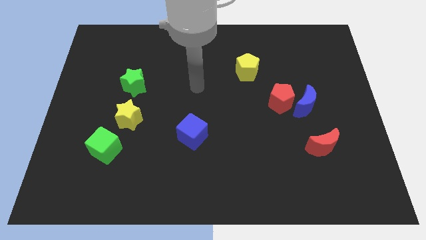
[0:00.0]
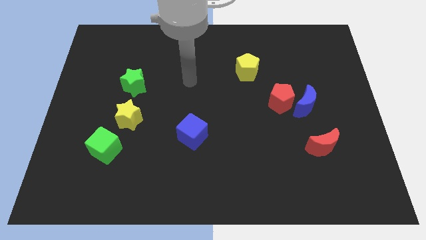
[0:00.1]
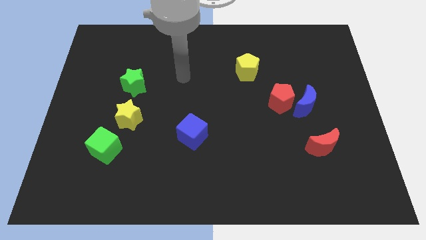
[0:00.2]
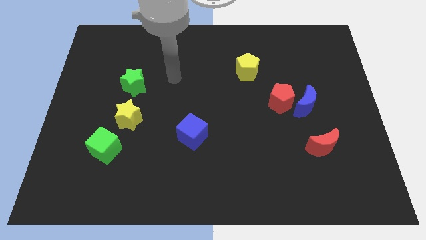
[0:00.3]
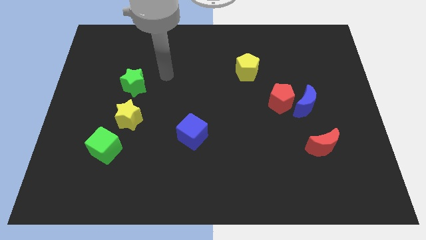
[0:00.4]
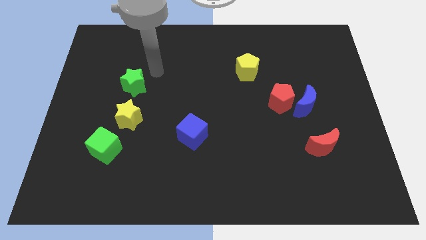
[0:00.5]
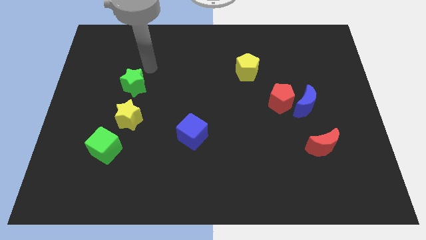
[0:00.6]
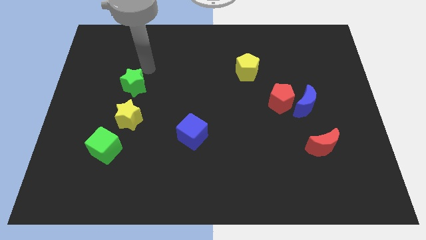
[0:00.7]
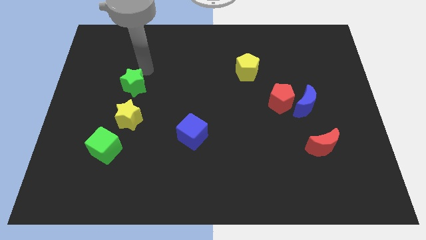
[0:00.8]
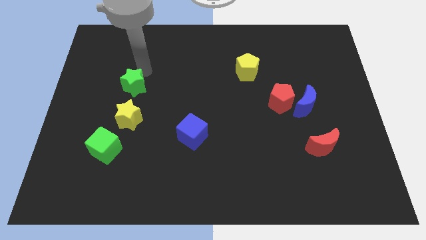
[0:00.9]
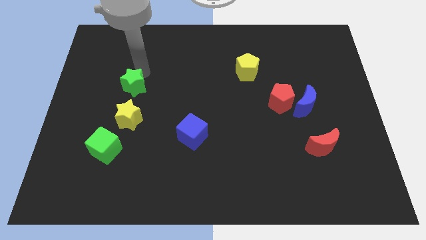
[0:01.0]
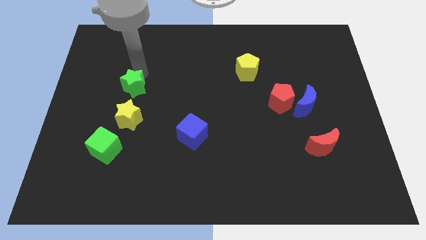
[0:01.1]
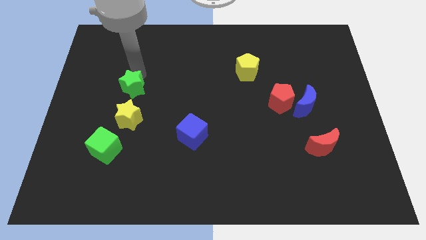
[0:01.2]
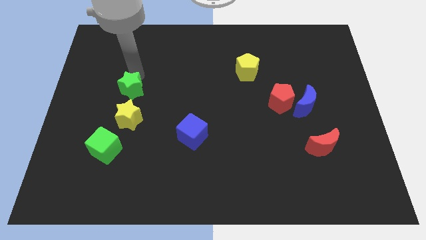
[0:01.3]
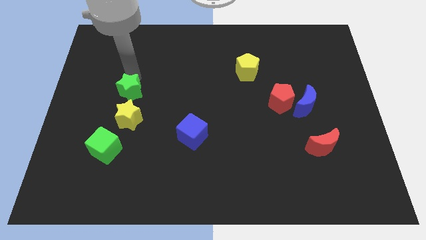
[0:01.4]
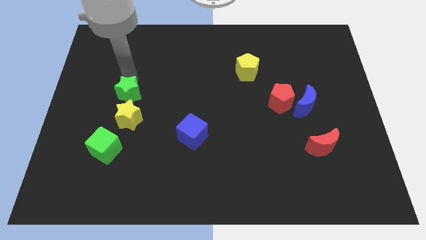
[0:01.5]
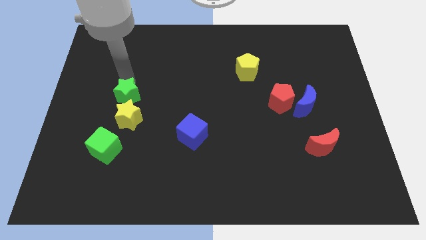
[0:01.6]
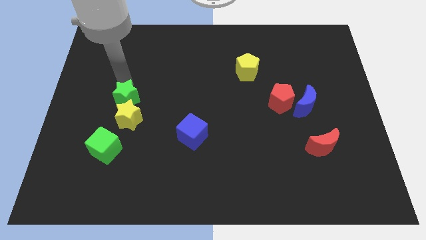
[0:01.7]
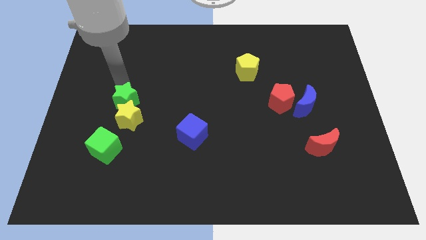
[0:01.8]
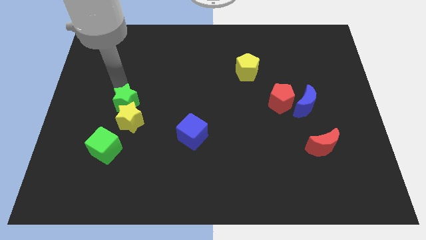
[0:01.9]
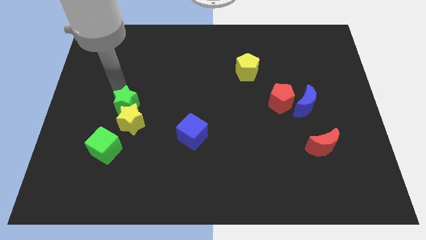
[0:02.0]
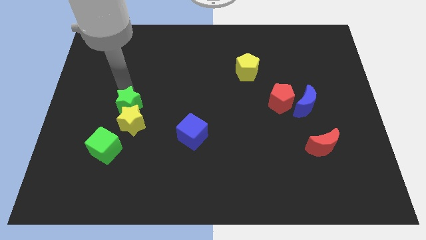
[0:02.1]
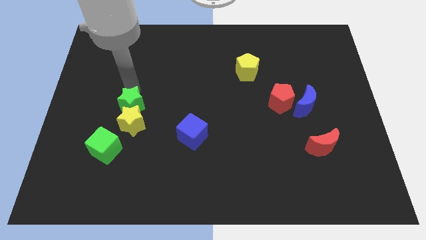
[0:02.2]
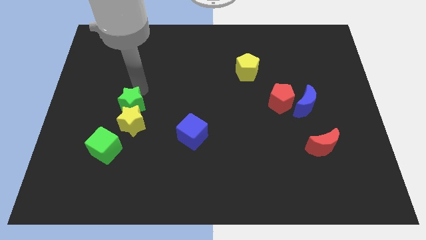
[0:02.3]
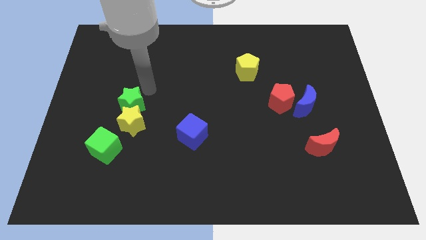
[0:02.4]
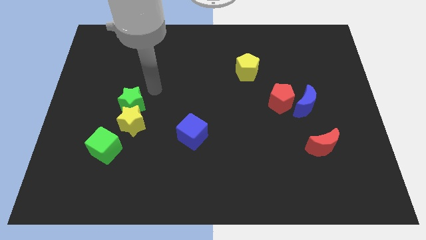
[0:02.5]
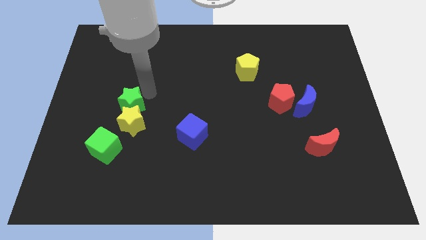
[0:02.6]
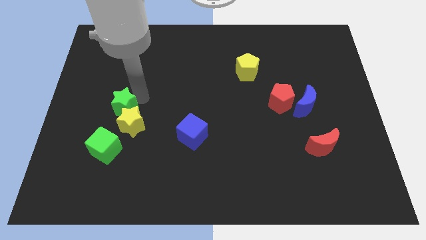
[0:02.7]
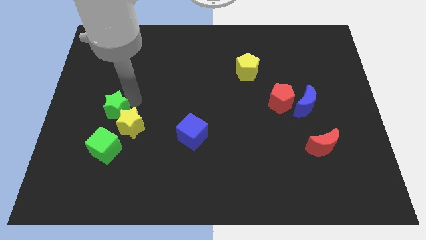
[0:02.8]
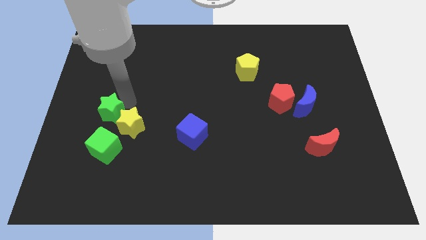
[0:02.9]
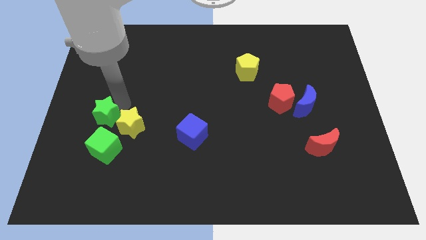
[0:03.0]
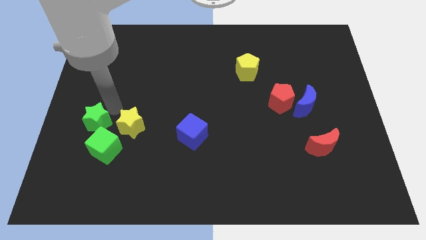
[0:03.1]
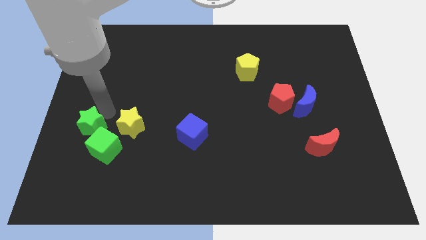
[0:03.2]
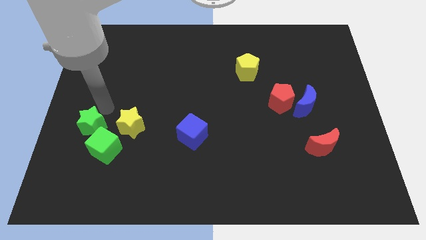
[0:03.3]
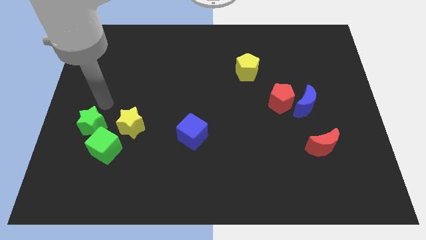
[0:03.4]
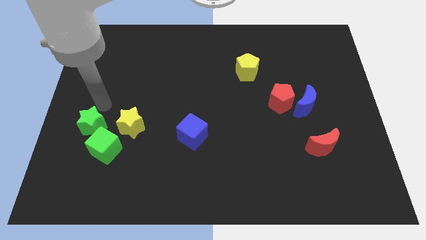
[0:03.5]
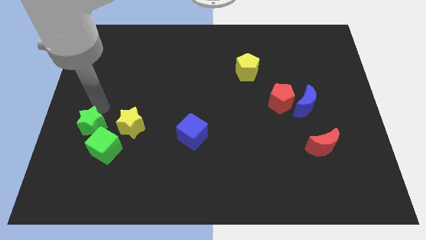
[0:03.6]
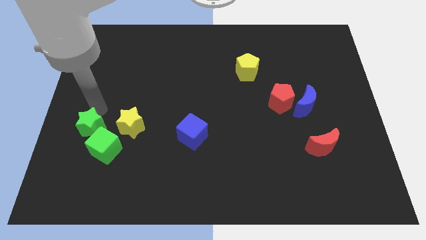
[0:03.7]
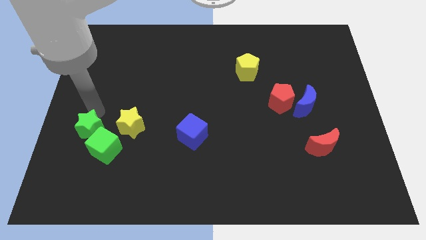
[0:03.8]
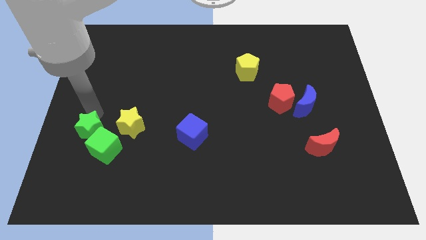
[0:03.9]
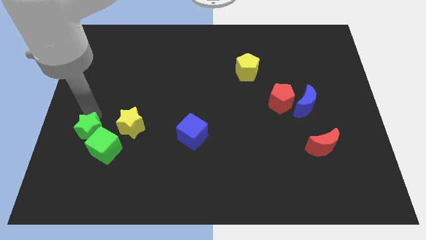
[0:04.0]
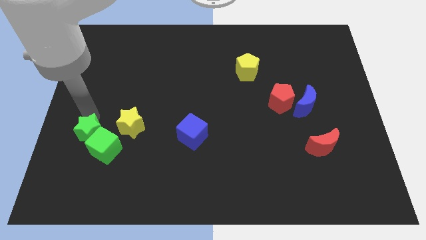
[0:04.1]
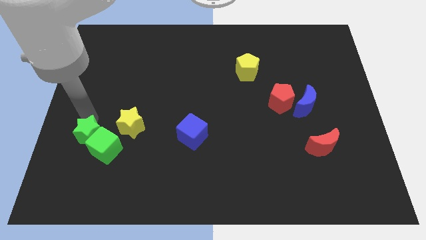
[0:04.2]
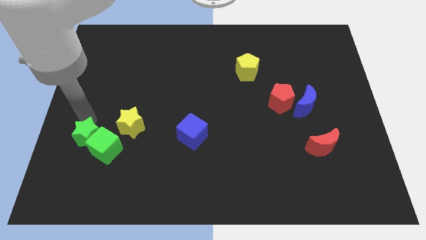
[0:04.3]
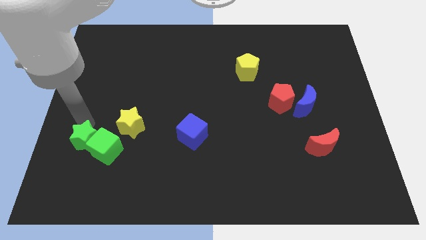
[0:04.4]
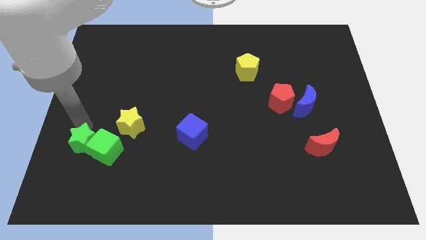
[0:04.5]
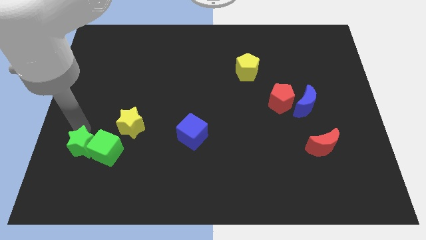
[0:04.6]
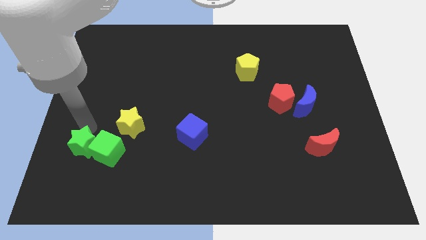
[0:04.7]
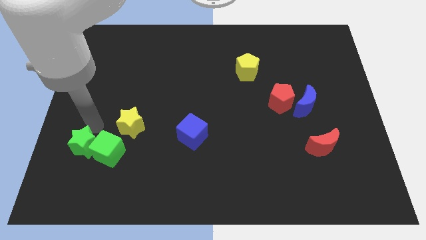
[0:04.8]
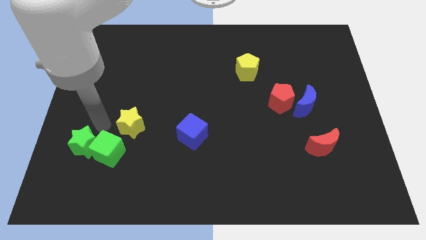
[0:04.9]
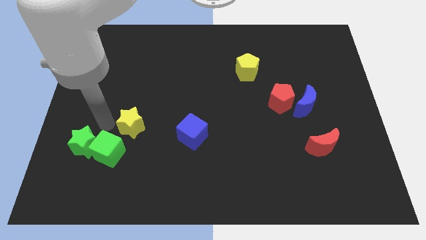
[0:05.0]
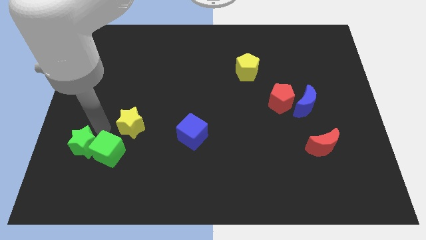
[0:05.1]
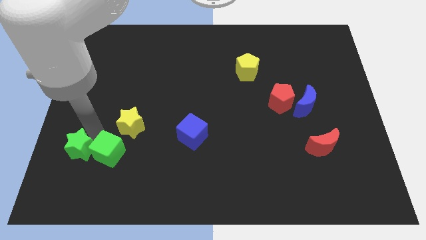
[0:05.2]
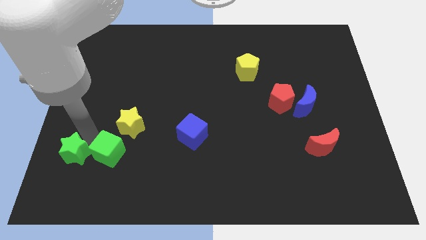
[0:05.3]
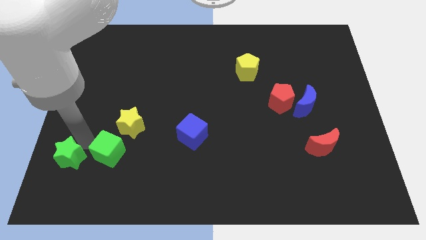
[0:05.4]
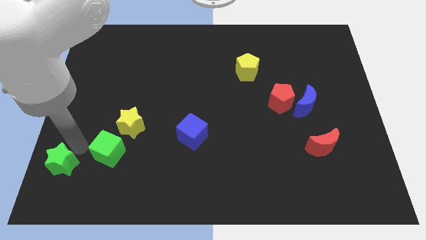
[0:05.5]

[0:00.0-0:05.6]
put the green star to the bottom left of the board
